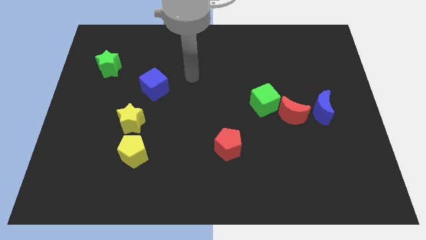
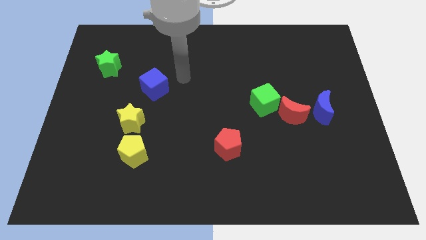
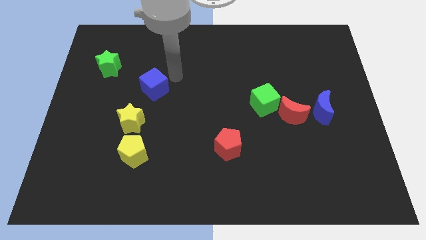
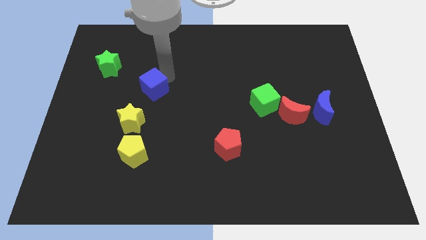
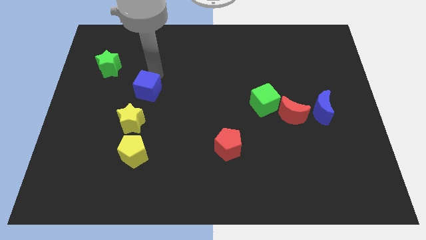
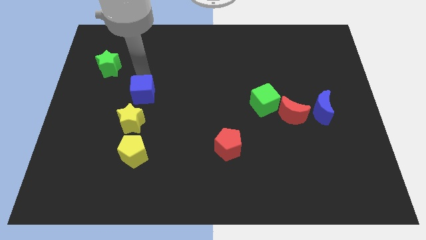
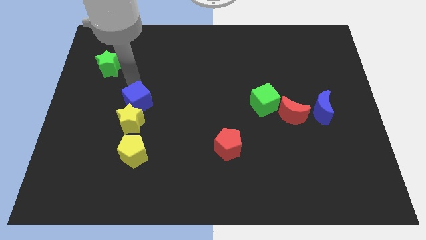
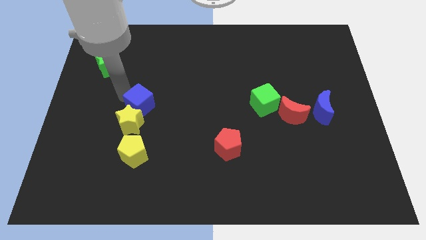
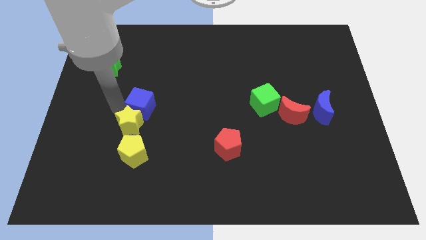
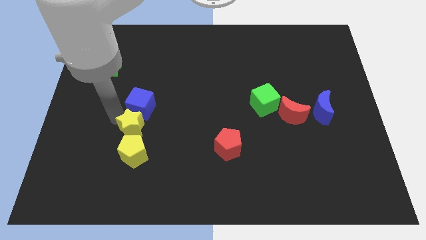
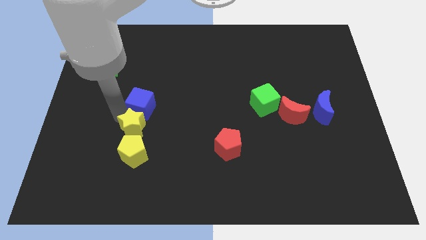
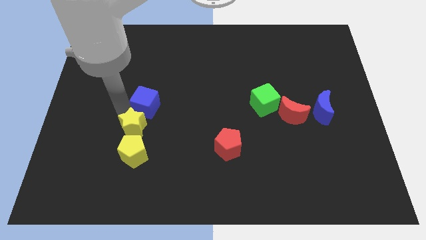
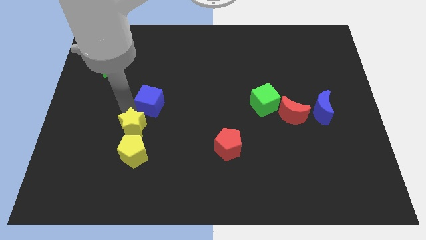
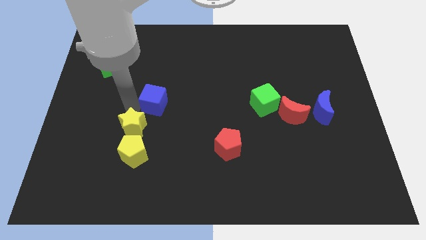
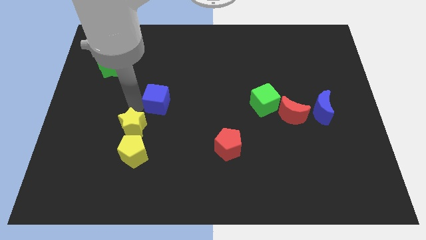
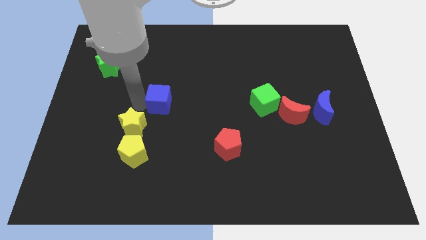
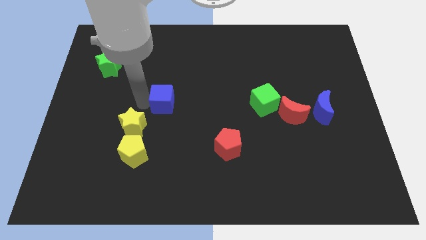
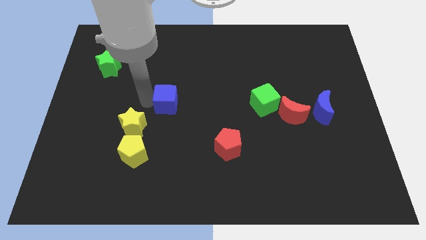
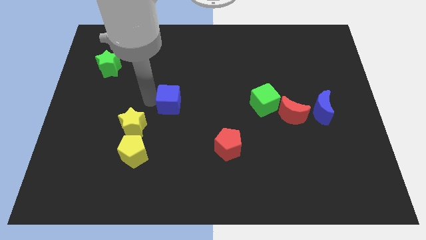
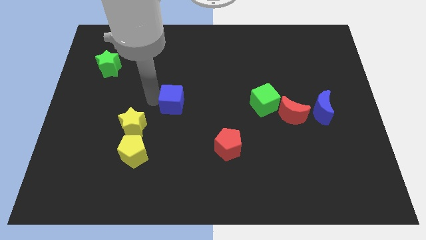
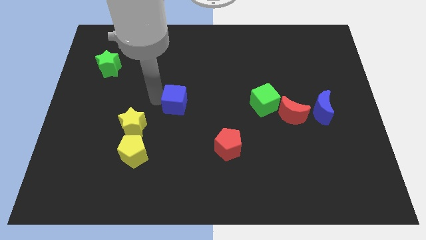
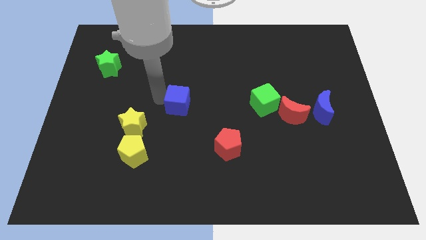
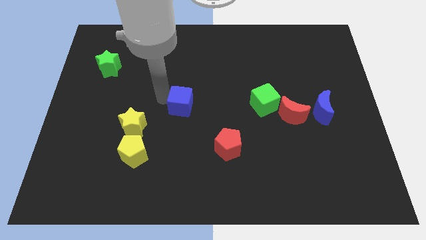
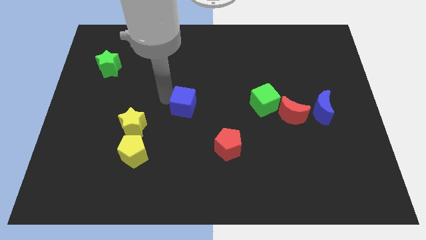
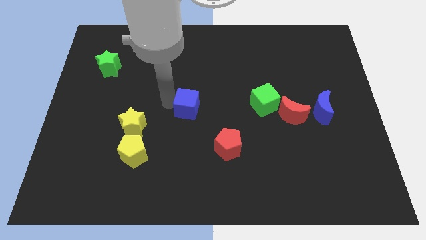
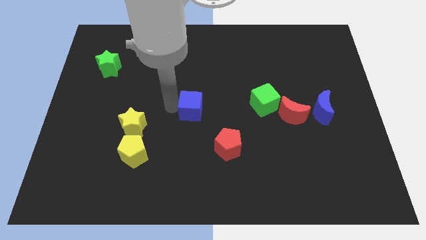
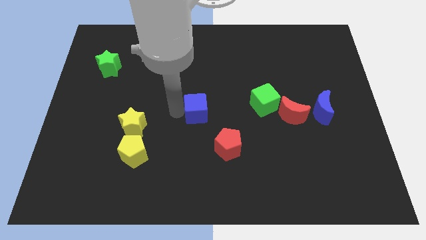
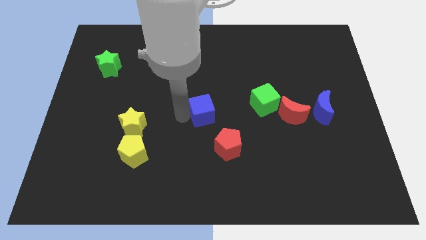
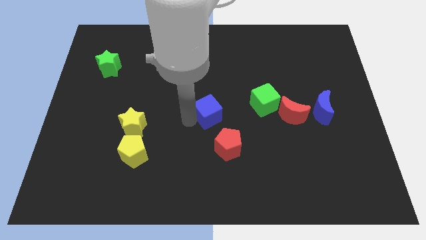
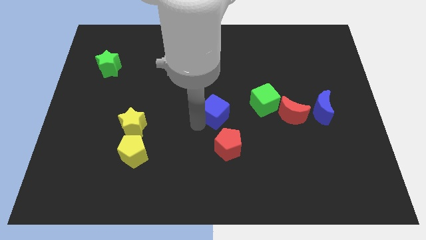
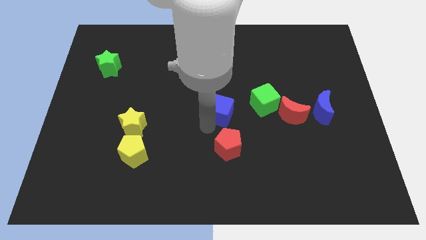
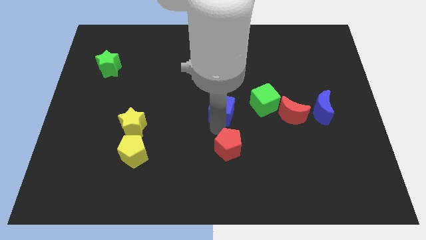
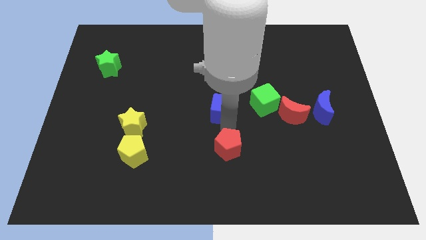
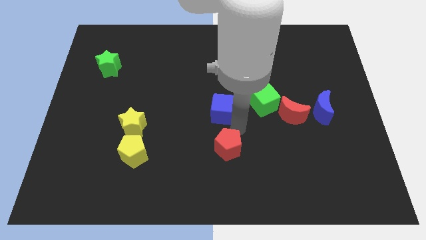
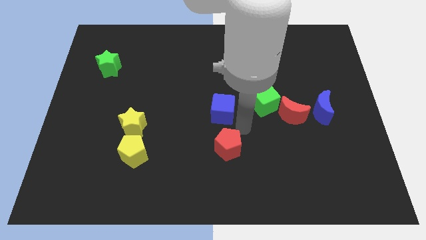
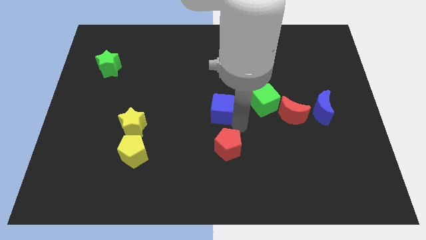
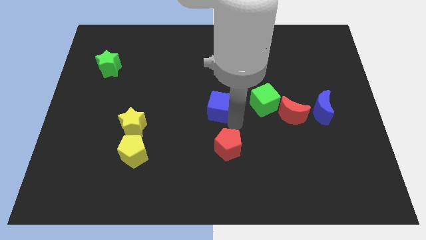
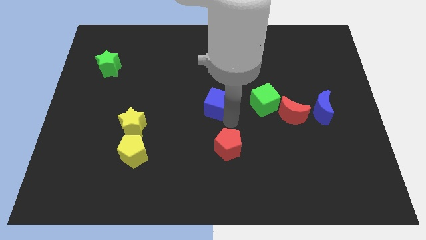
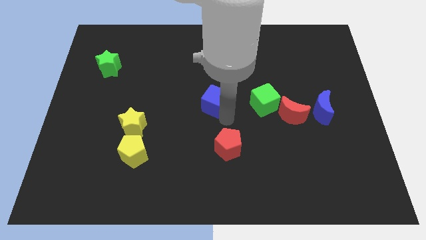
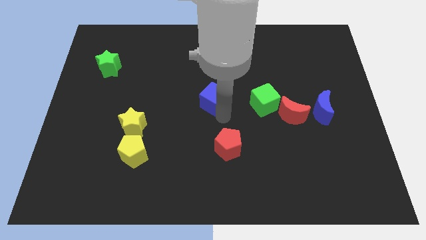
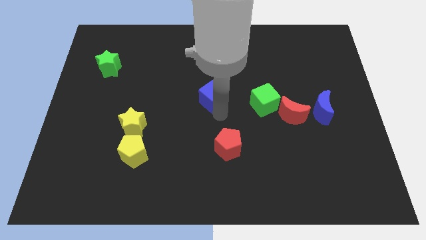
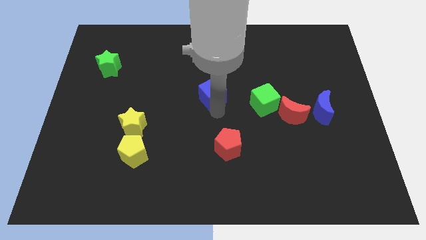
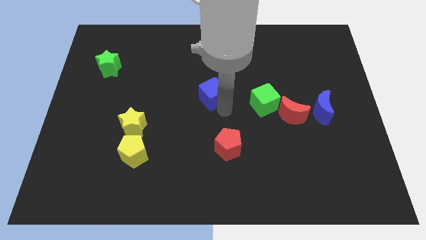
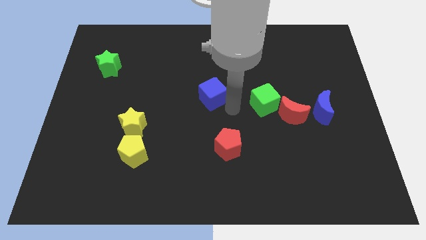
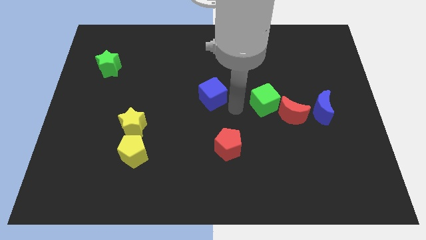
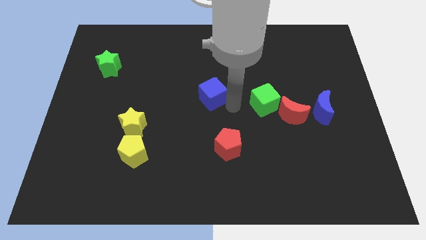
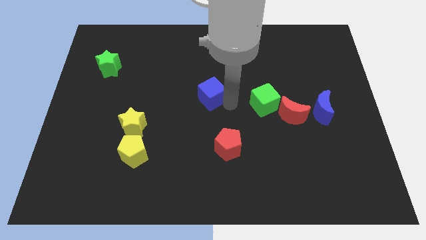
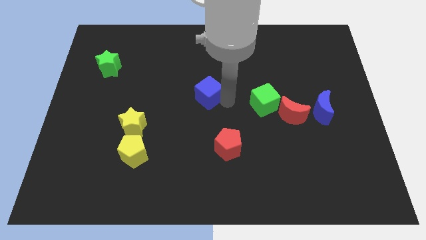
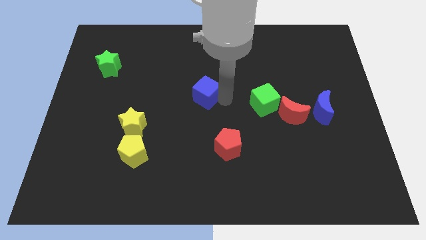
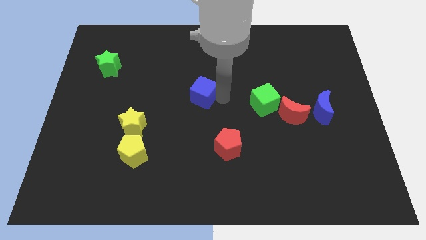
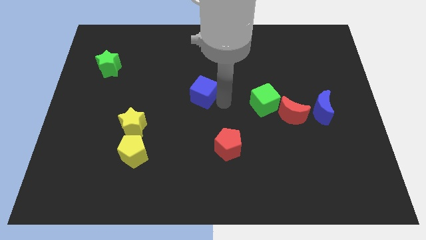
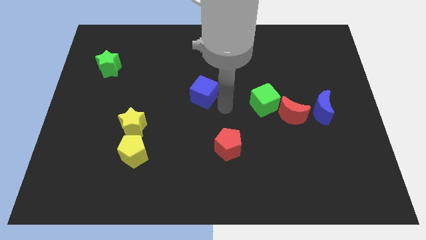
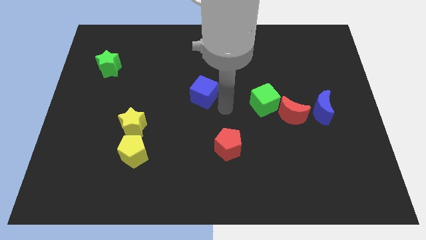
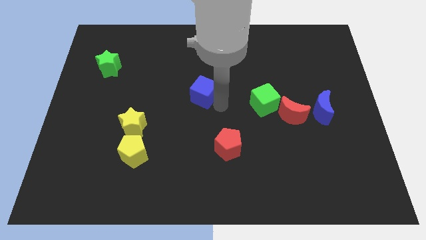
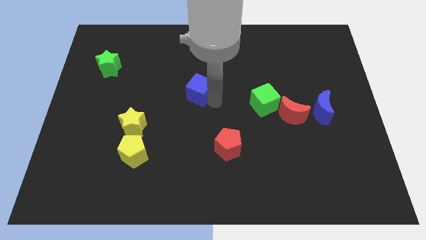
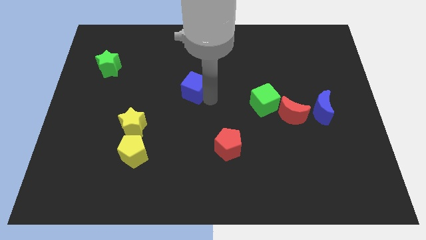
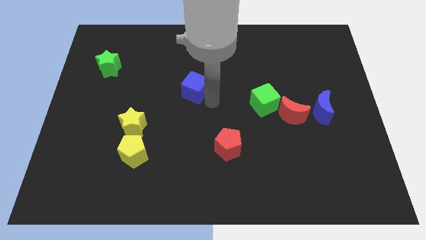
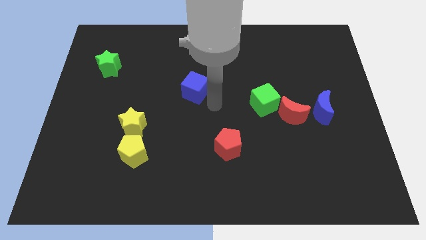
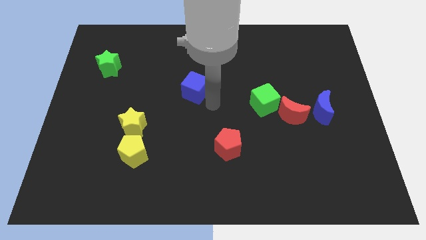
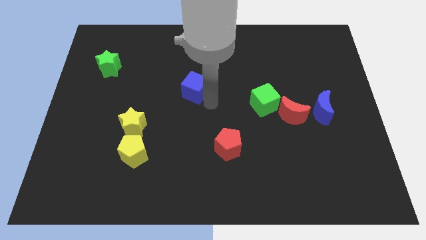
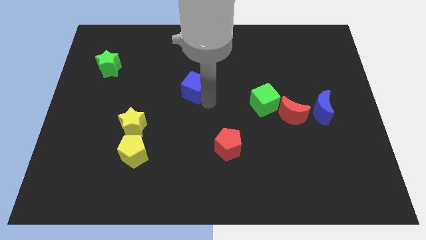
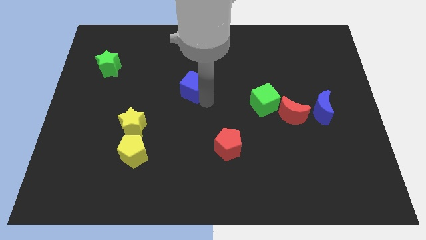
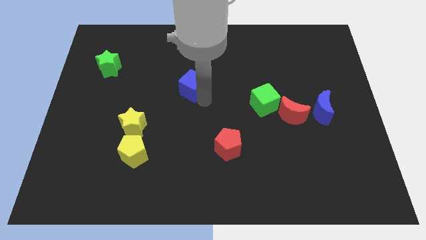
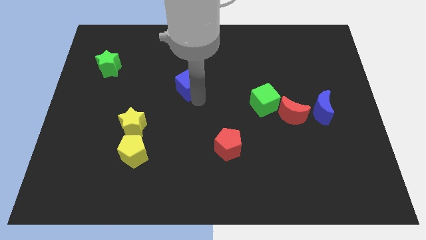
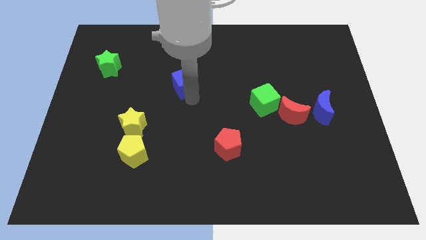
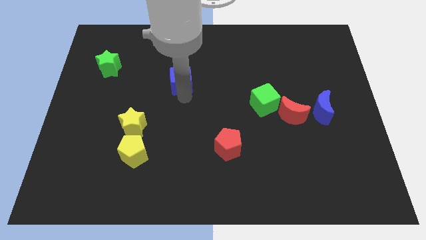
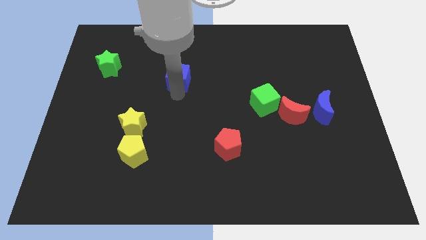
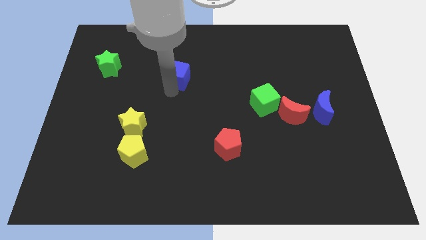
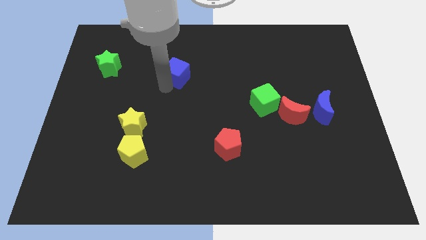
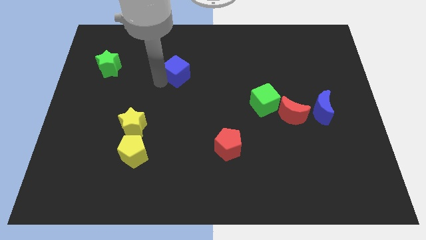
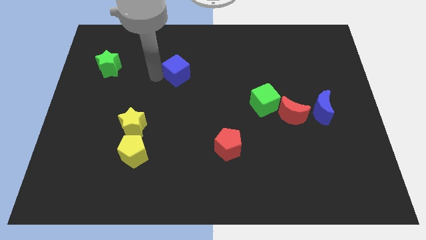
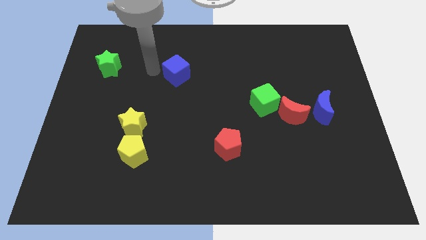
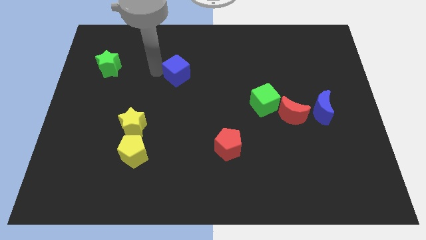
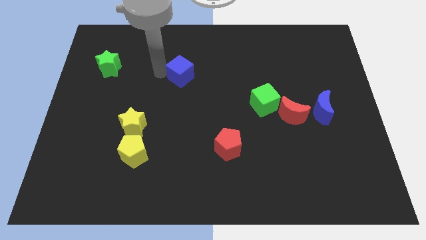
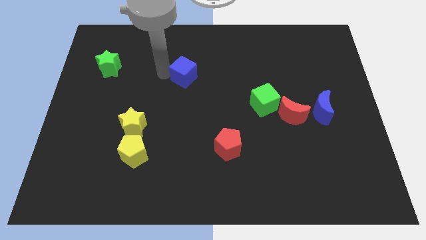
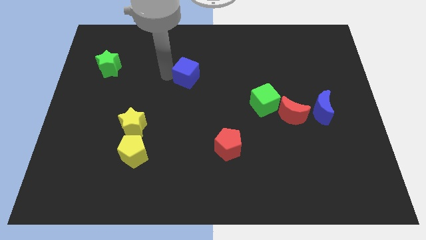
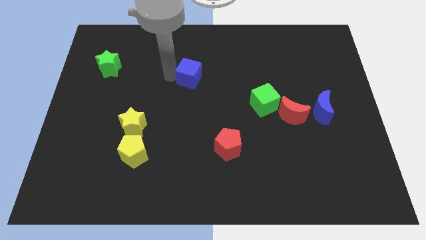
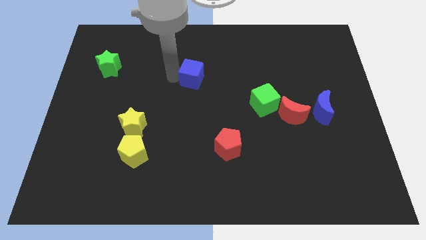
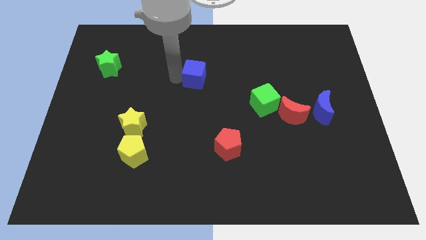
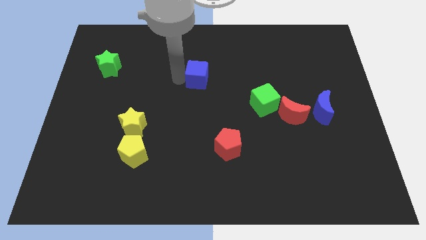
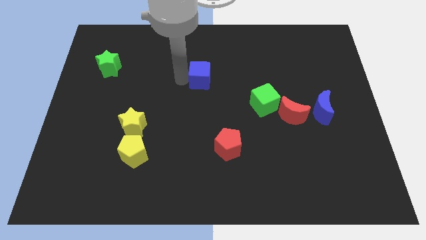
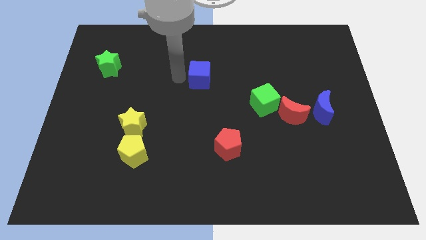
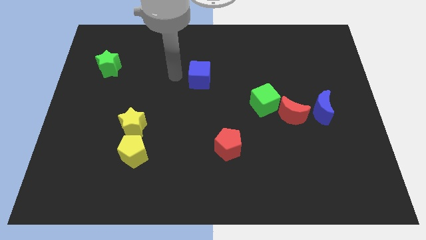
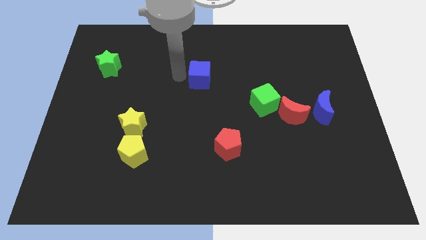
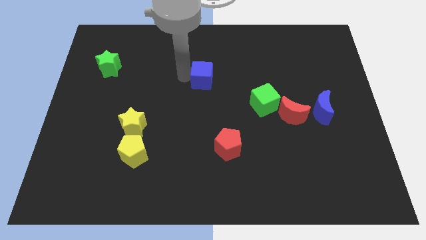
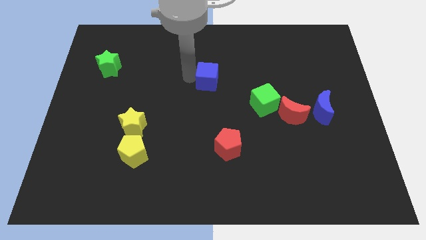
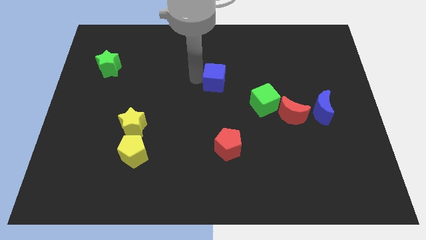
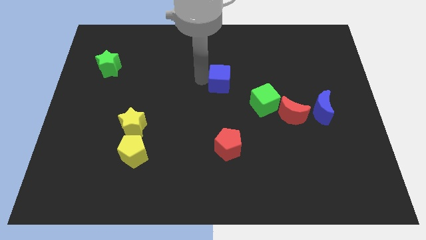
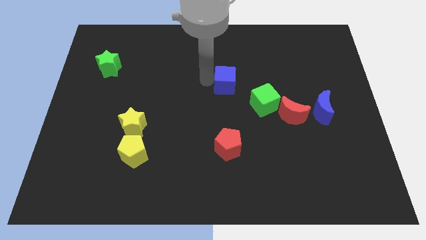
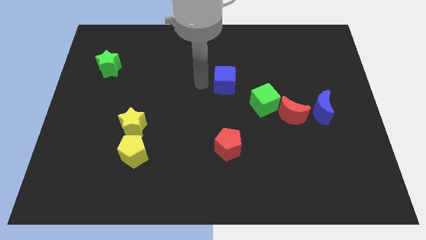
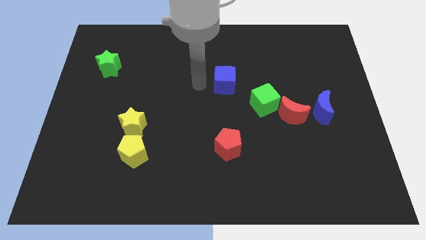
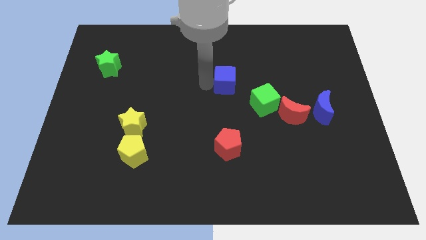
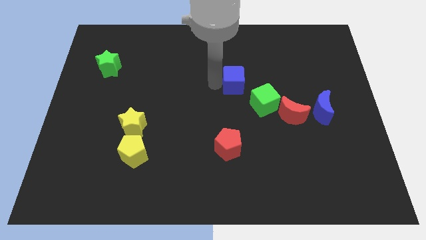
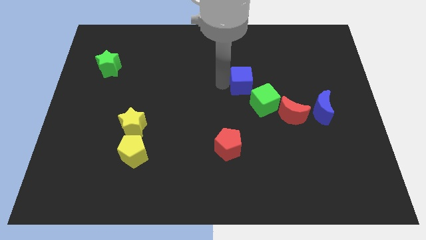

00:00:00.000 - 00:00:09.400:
move the blue cube to the right
